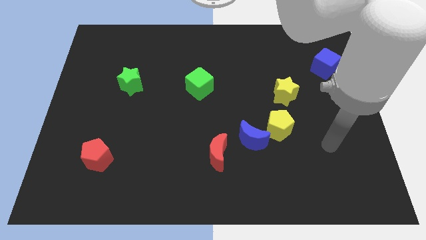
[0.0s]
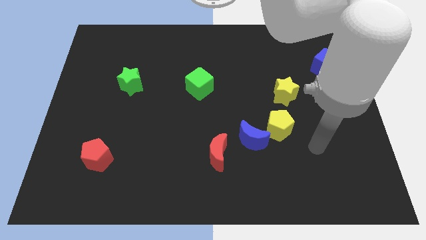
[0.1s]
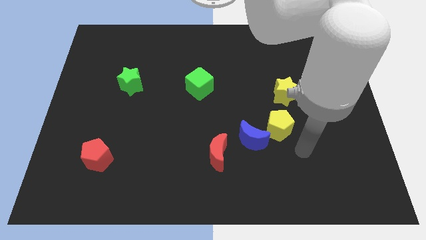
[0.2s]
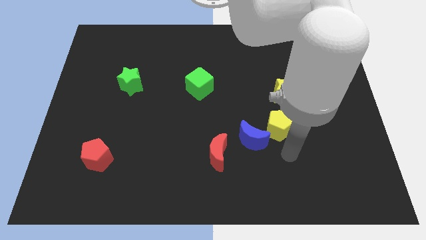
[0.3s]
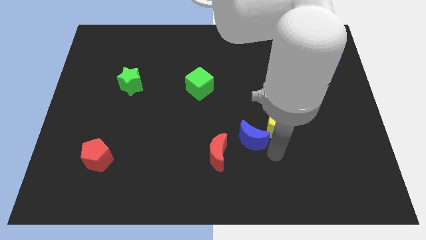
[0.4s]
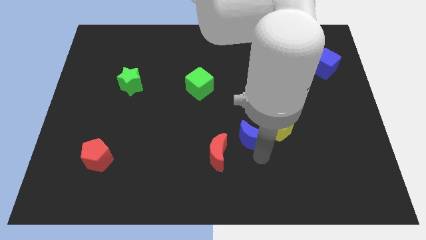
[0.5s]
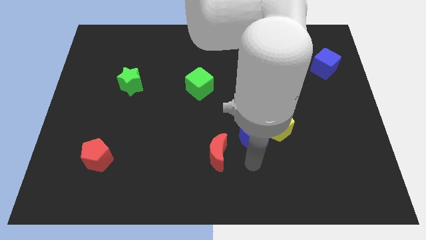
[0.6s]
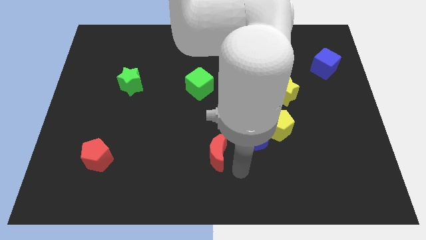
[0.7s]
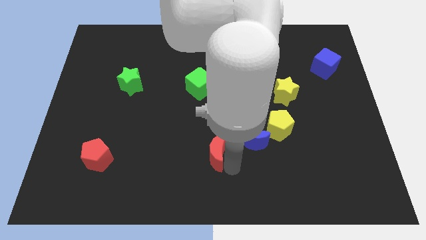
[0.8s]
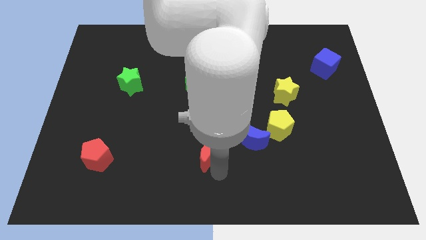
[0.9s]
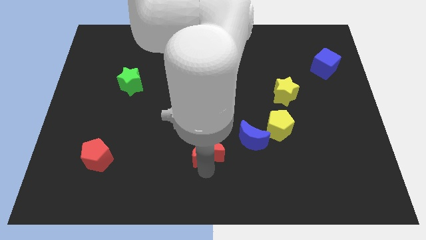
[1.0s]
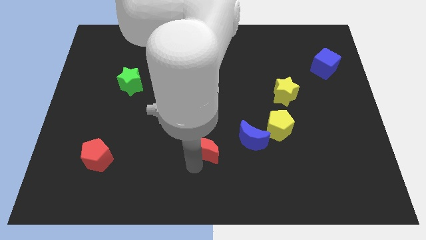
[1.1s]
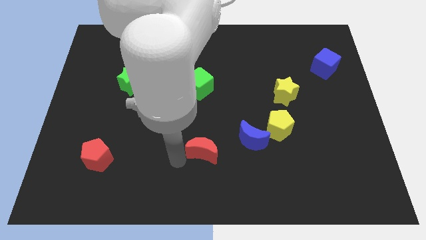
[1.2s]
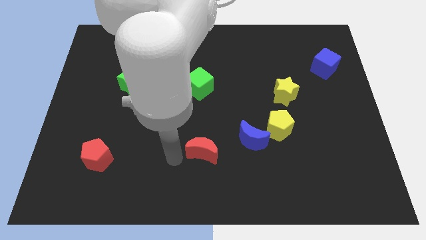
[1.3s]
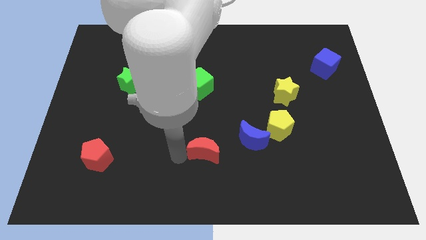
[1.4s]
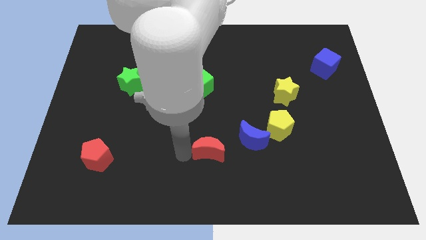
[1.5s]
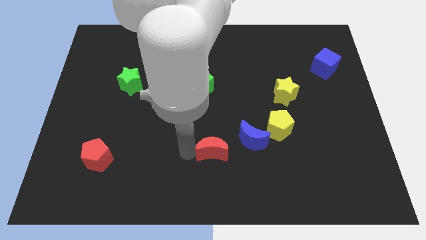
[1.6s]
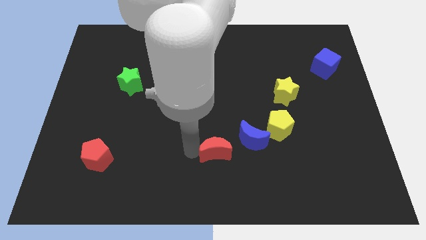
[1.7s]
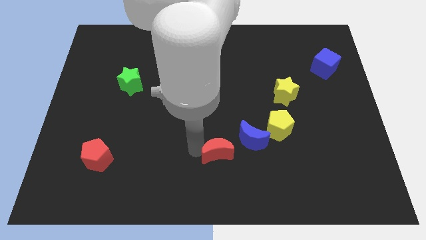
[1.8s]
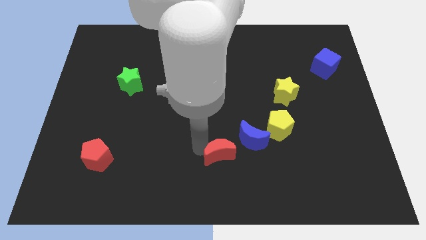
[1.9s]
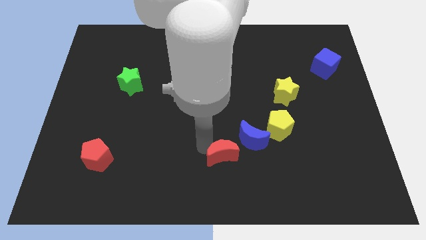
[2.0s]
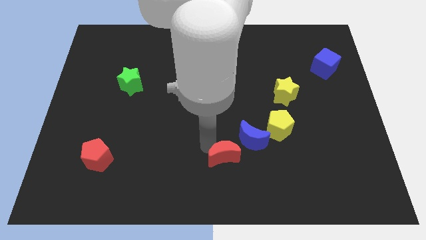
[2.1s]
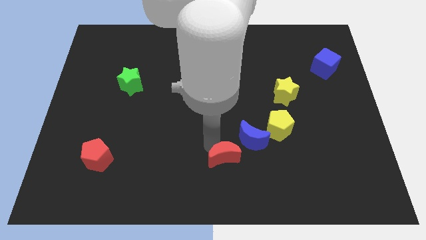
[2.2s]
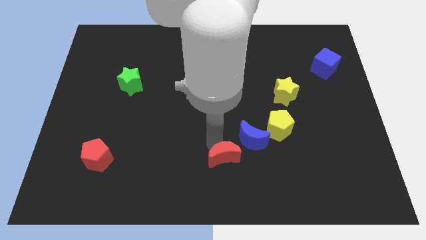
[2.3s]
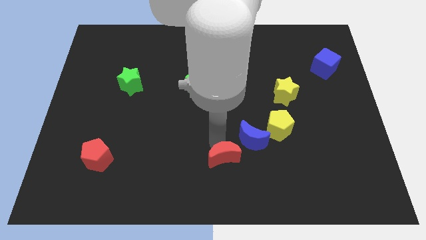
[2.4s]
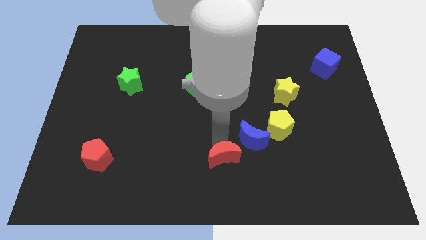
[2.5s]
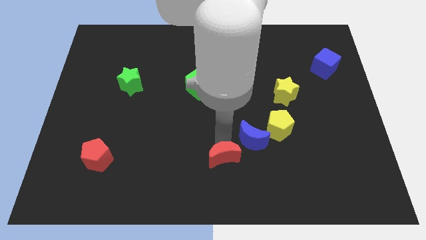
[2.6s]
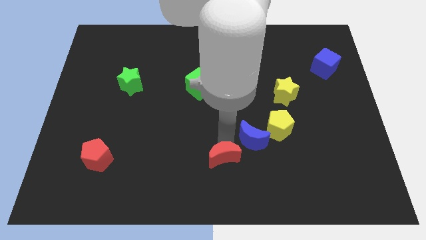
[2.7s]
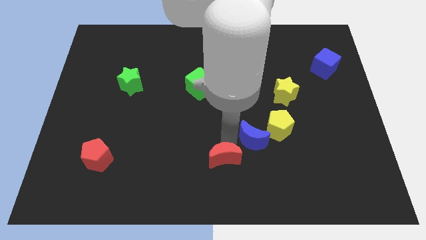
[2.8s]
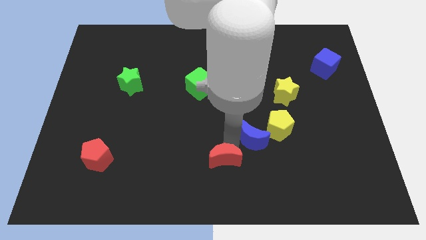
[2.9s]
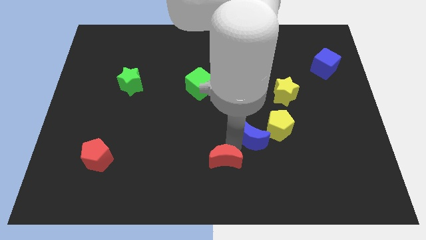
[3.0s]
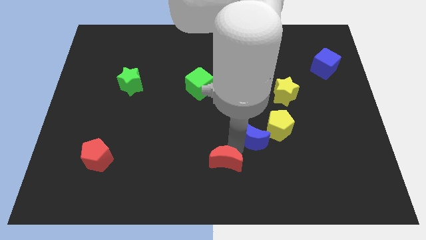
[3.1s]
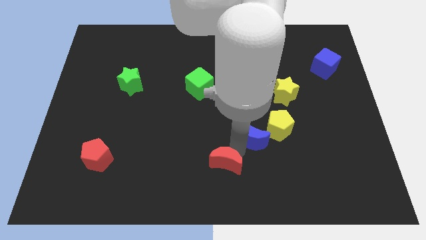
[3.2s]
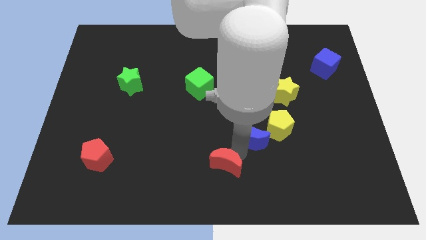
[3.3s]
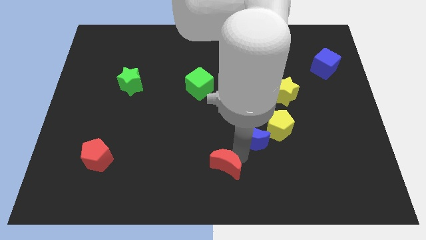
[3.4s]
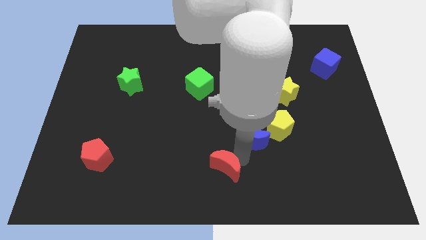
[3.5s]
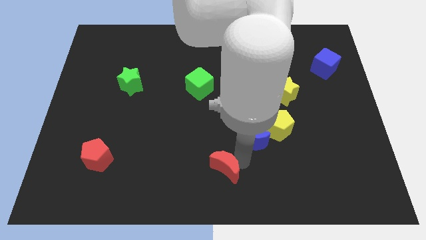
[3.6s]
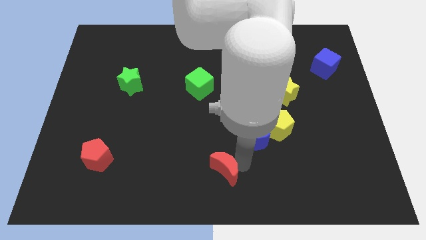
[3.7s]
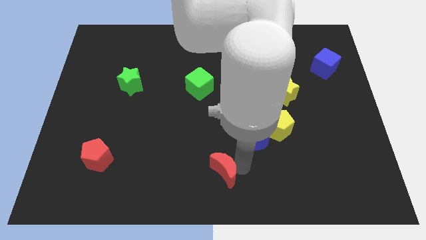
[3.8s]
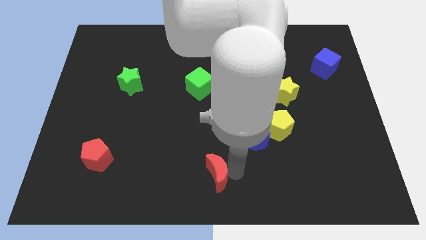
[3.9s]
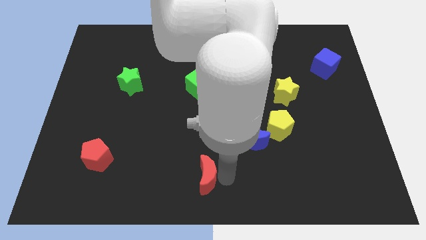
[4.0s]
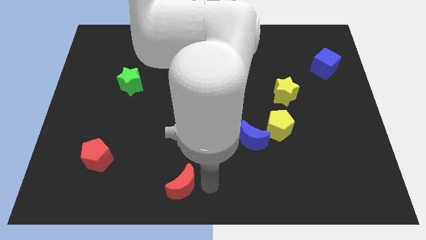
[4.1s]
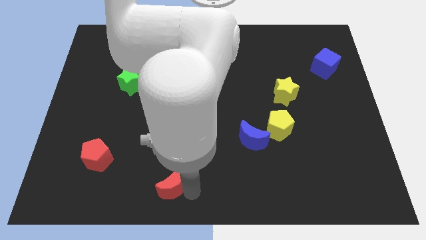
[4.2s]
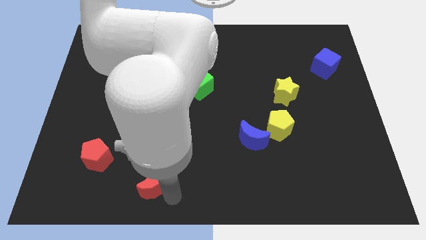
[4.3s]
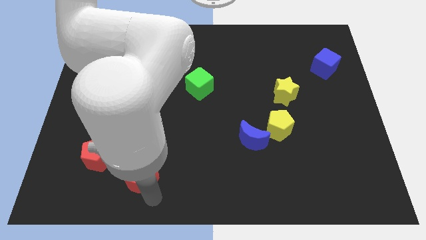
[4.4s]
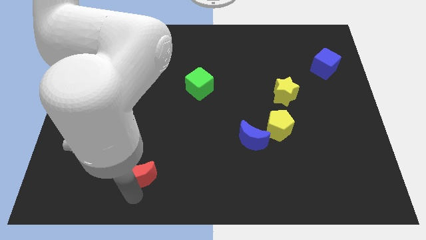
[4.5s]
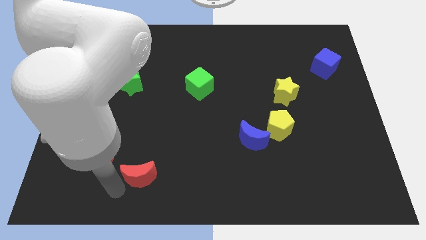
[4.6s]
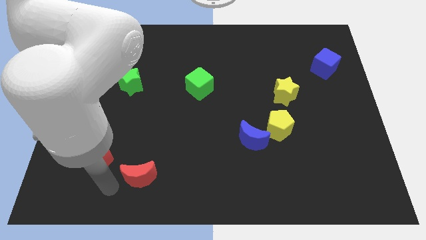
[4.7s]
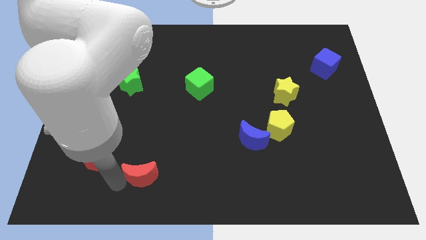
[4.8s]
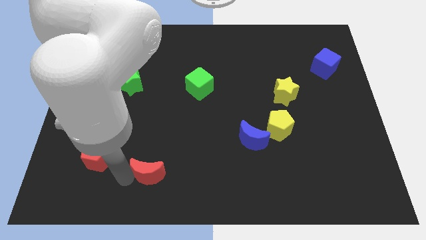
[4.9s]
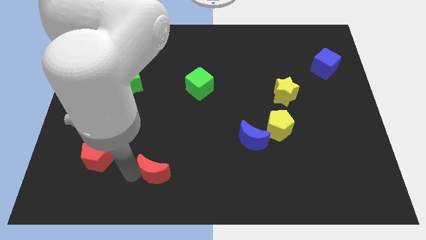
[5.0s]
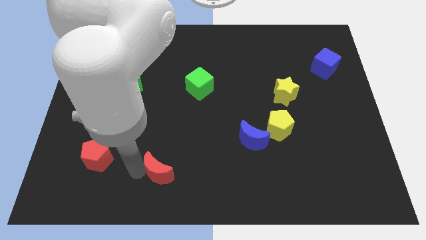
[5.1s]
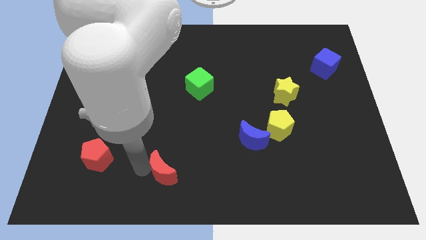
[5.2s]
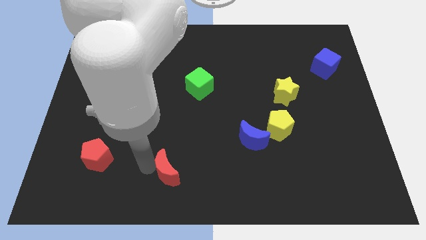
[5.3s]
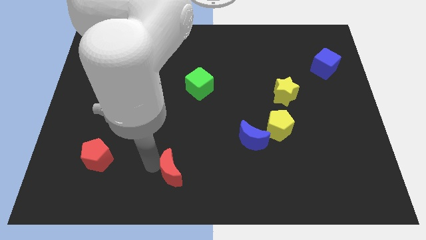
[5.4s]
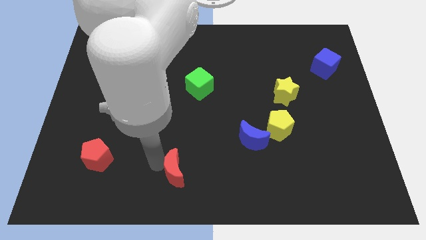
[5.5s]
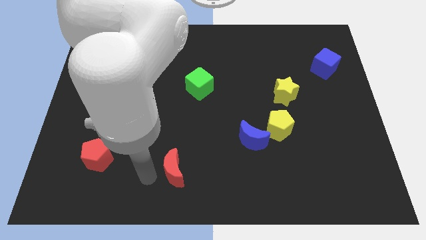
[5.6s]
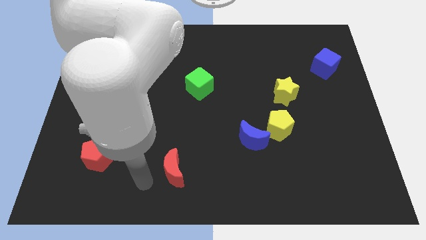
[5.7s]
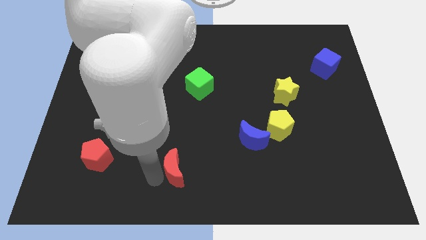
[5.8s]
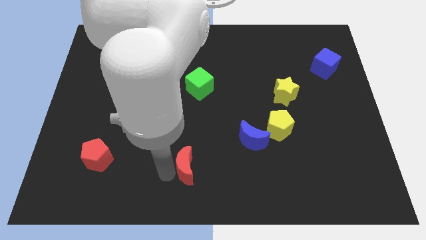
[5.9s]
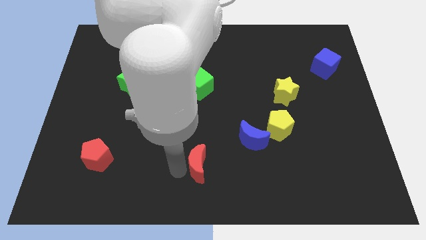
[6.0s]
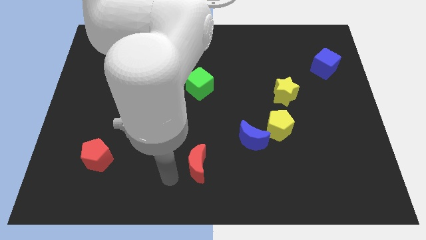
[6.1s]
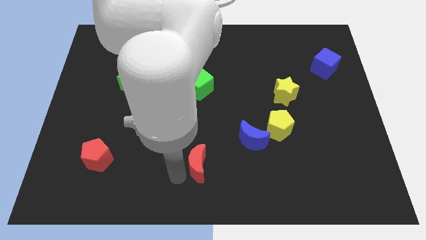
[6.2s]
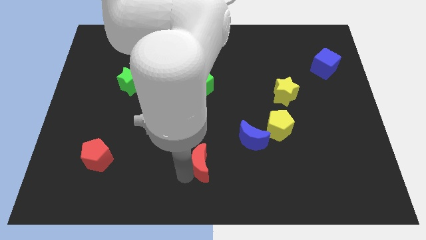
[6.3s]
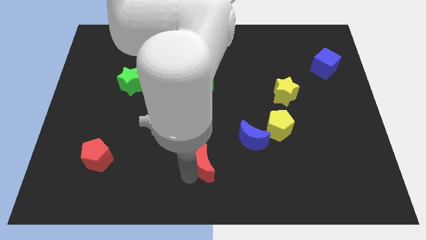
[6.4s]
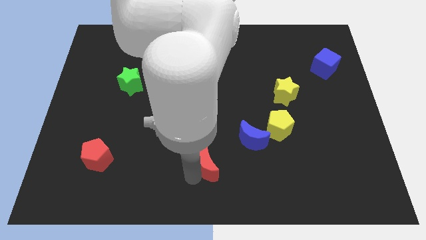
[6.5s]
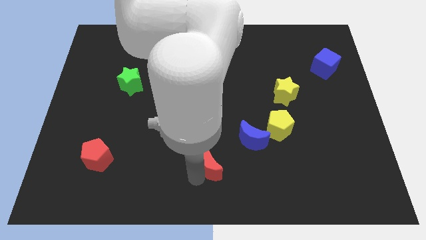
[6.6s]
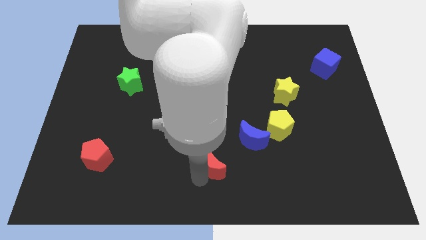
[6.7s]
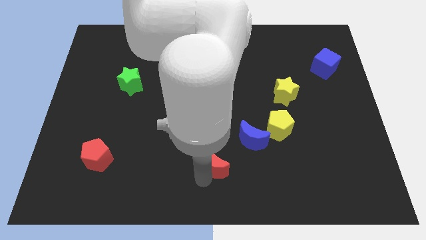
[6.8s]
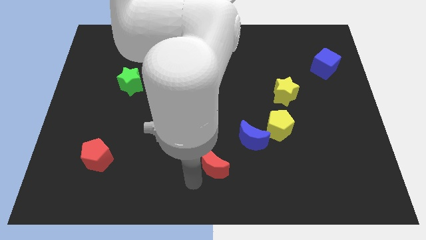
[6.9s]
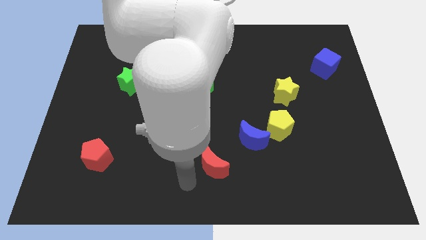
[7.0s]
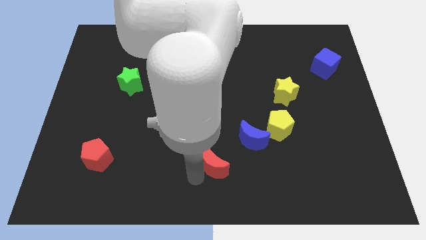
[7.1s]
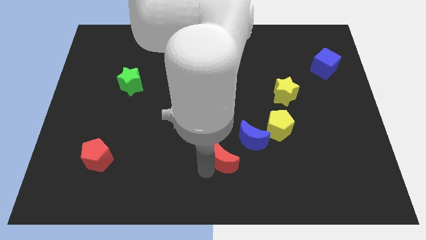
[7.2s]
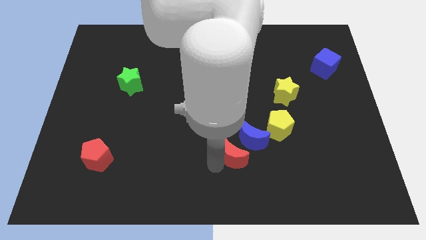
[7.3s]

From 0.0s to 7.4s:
put the red moon towards the blue moon
